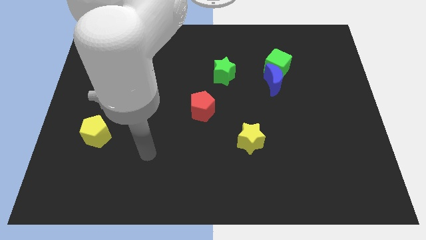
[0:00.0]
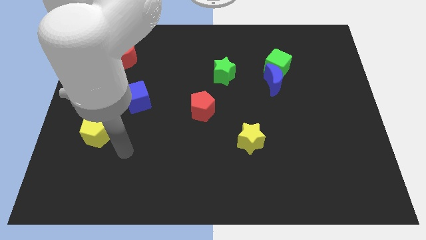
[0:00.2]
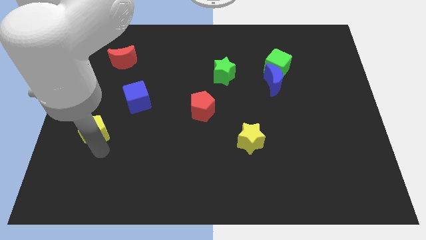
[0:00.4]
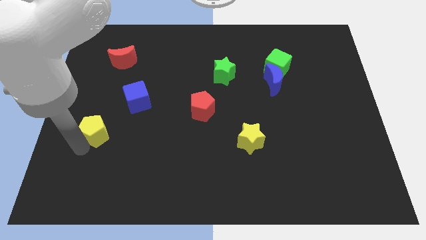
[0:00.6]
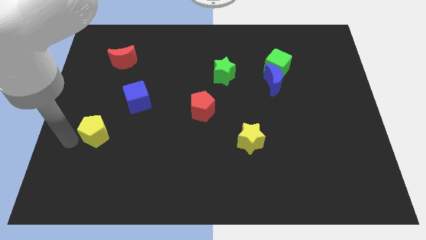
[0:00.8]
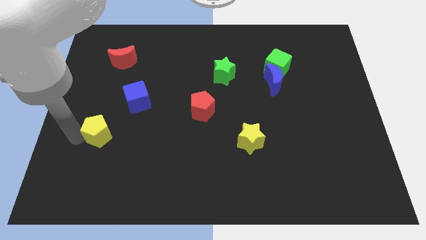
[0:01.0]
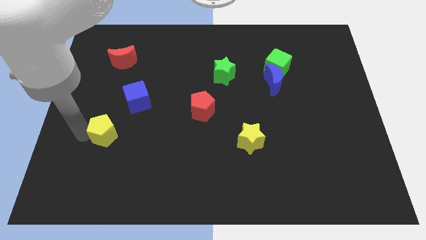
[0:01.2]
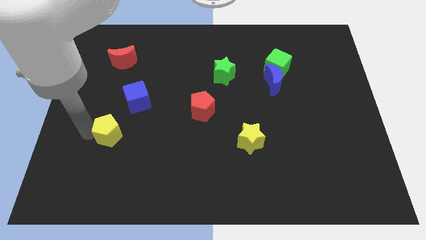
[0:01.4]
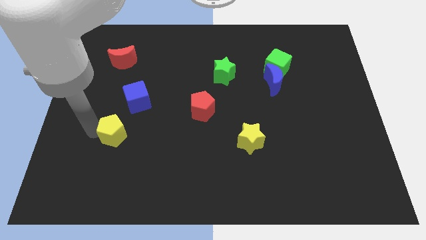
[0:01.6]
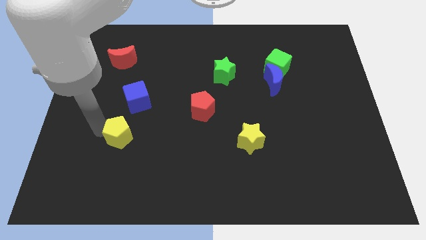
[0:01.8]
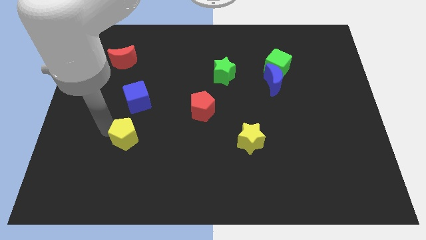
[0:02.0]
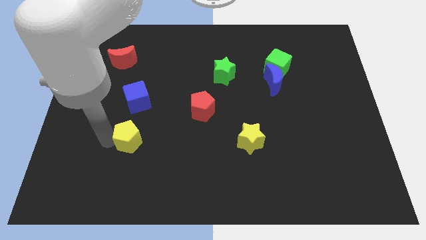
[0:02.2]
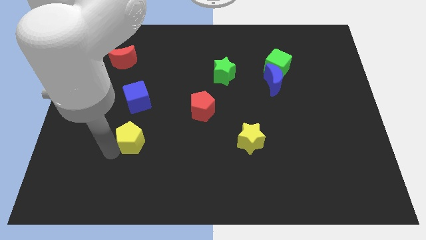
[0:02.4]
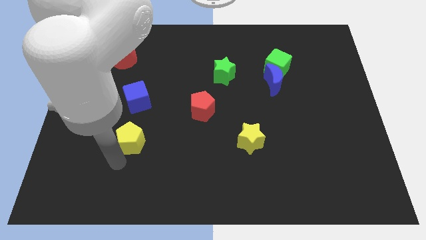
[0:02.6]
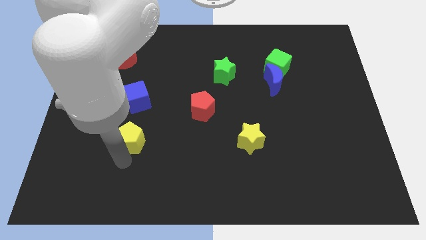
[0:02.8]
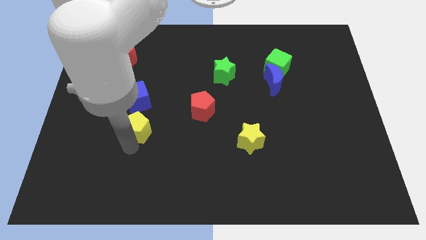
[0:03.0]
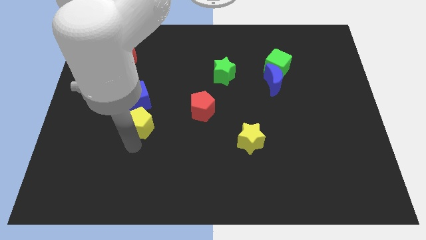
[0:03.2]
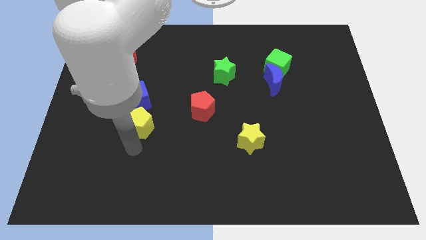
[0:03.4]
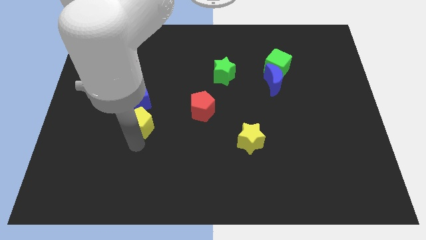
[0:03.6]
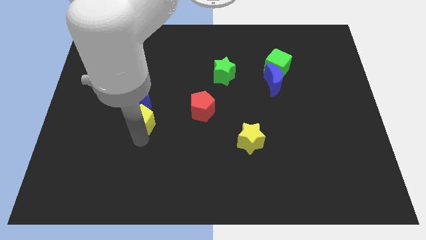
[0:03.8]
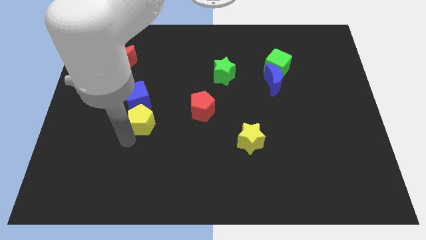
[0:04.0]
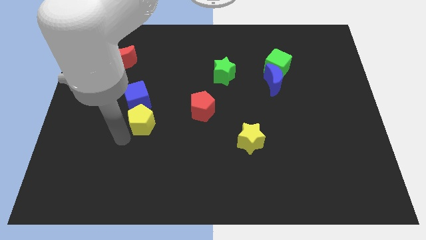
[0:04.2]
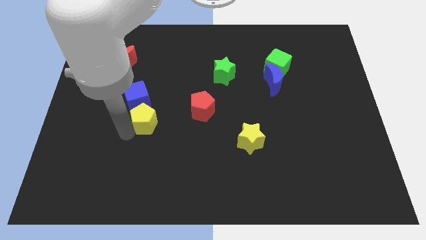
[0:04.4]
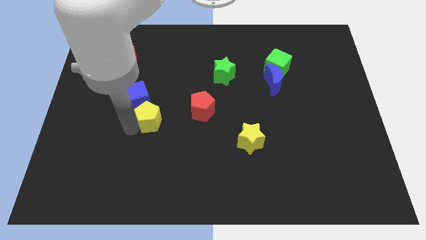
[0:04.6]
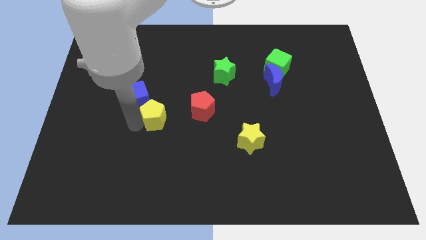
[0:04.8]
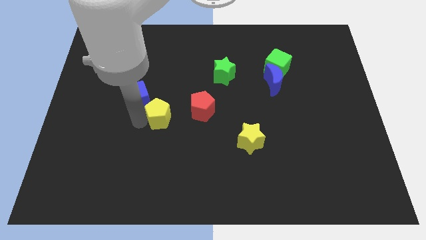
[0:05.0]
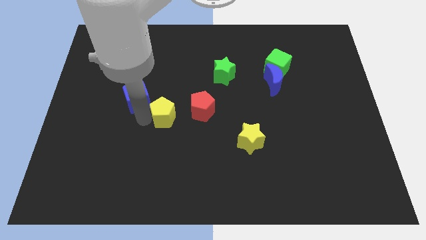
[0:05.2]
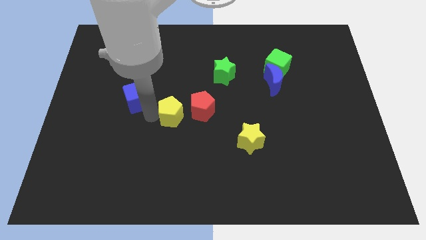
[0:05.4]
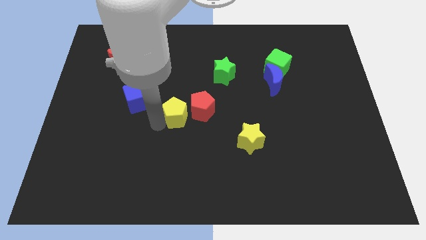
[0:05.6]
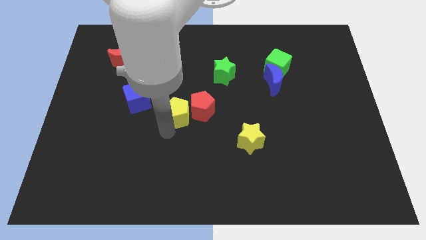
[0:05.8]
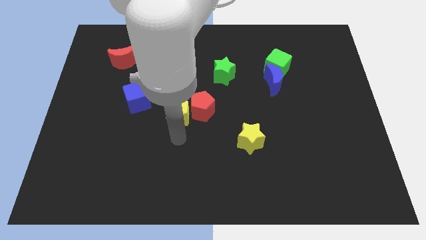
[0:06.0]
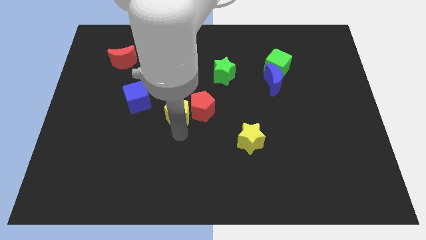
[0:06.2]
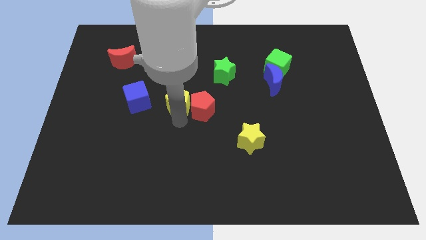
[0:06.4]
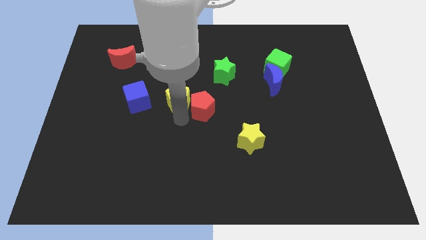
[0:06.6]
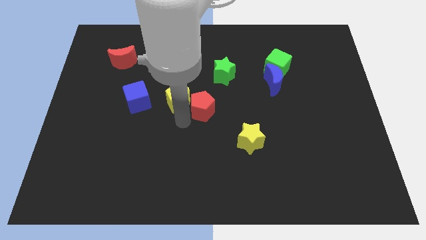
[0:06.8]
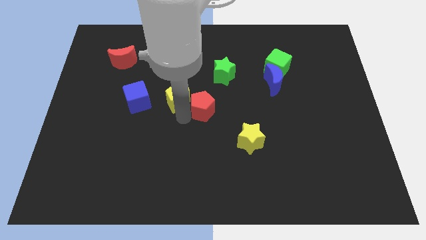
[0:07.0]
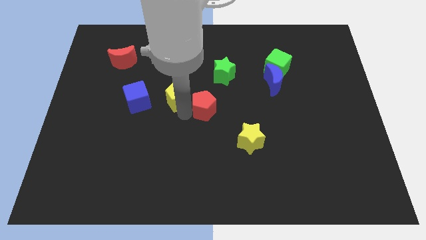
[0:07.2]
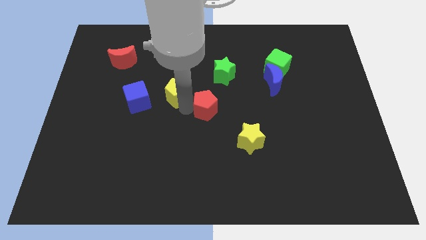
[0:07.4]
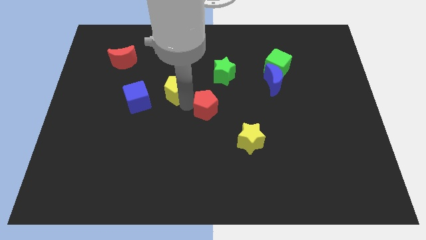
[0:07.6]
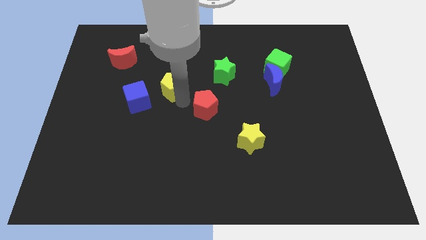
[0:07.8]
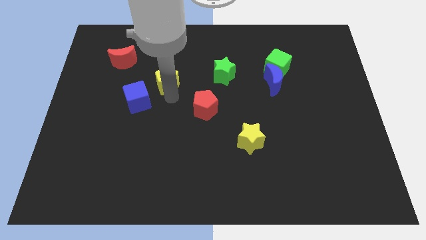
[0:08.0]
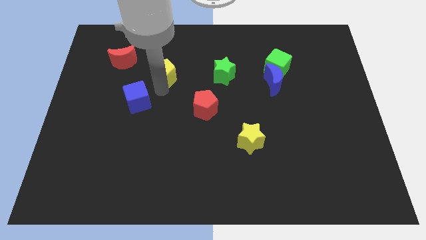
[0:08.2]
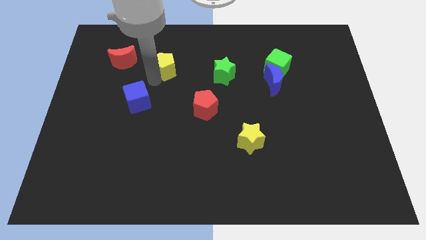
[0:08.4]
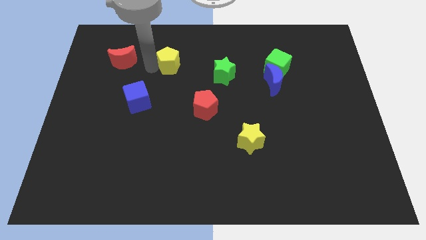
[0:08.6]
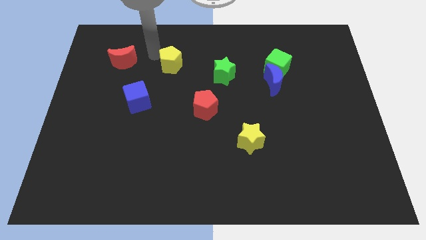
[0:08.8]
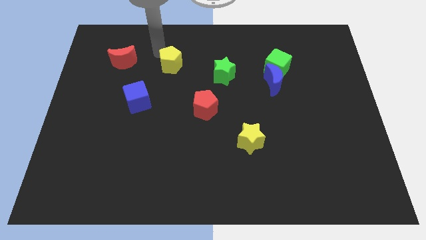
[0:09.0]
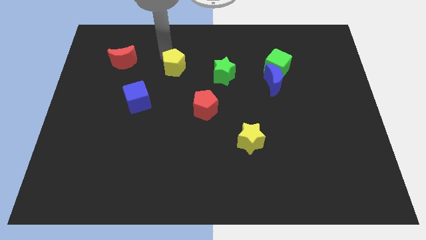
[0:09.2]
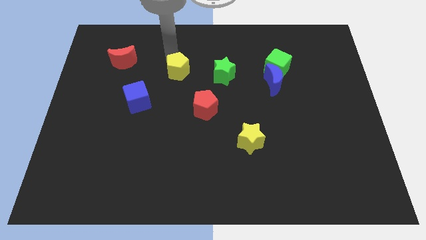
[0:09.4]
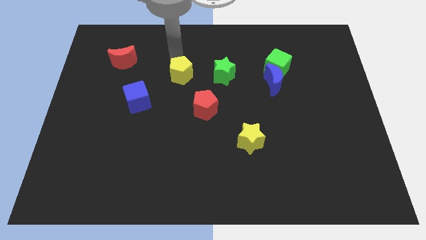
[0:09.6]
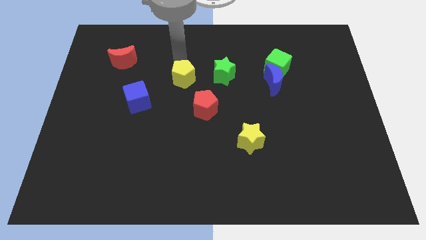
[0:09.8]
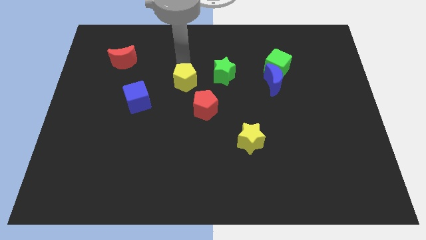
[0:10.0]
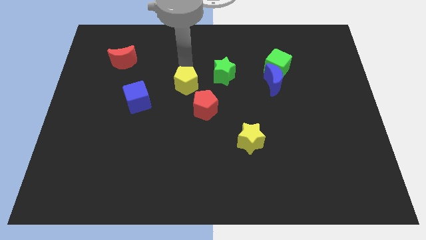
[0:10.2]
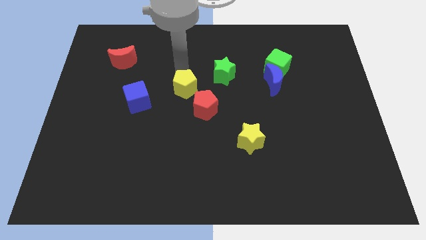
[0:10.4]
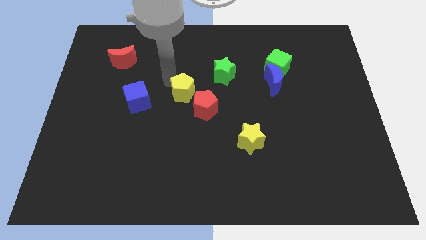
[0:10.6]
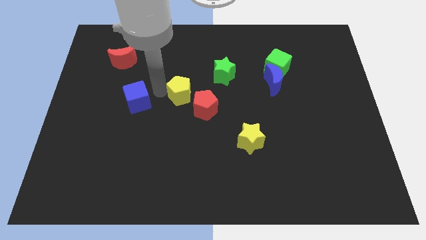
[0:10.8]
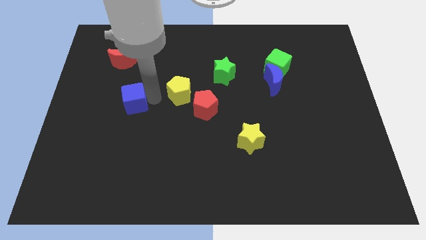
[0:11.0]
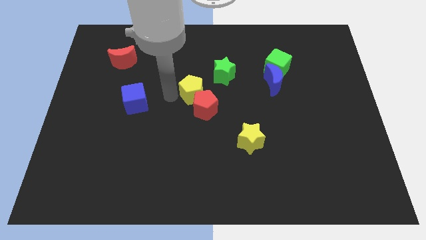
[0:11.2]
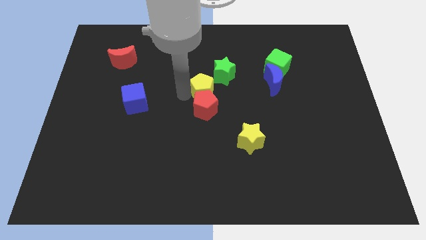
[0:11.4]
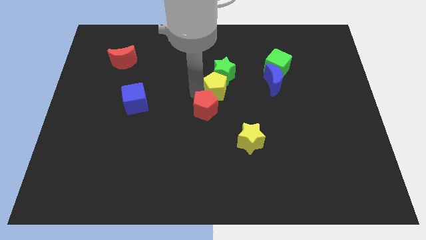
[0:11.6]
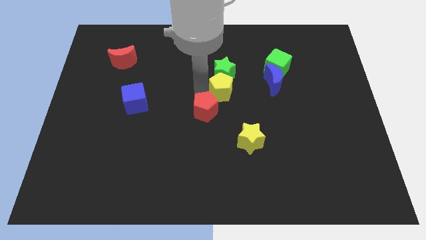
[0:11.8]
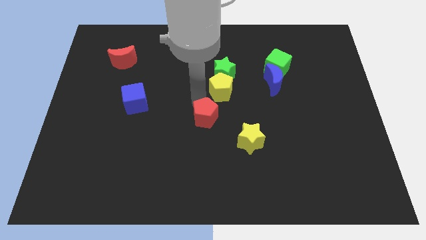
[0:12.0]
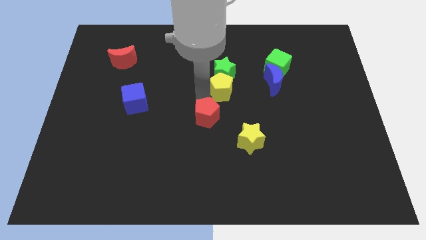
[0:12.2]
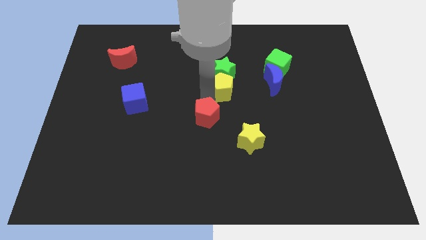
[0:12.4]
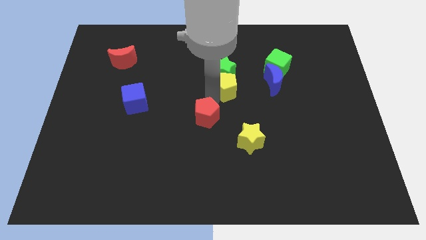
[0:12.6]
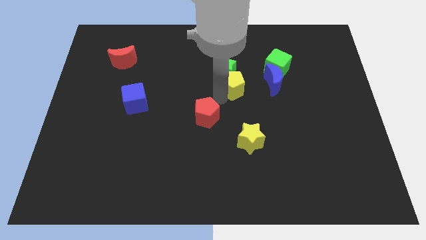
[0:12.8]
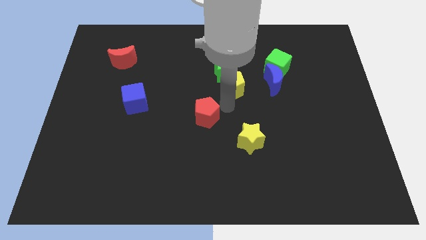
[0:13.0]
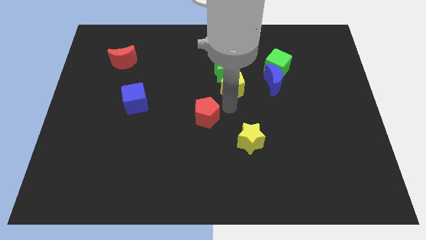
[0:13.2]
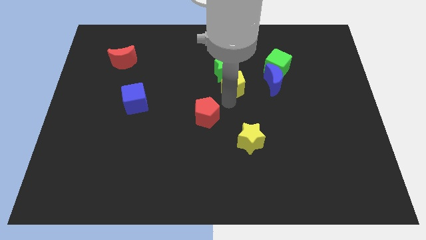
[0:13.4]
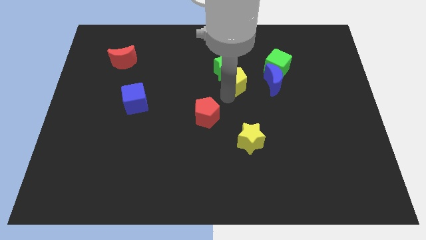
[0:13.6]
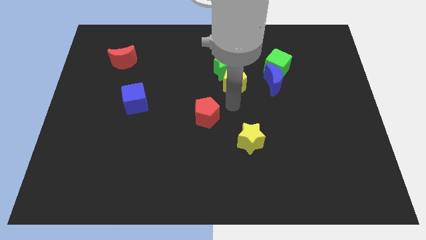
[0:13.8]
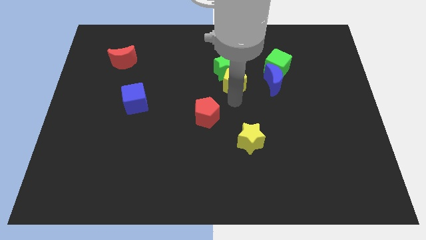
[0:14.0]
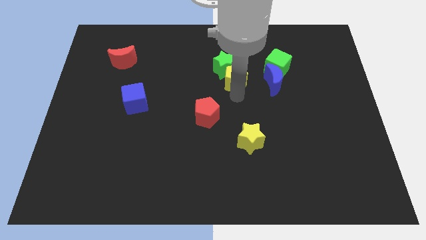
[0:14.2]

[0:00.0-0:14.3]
slide the yellow pentagon to the left of the green cube
